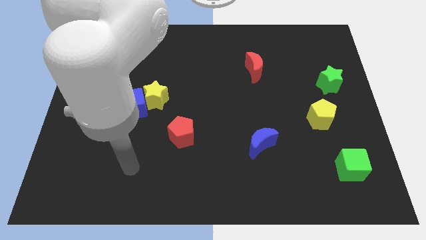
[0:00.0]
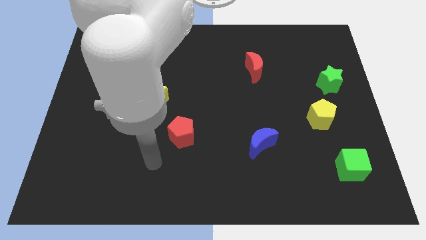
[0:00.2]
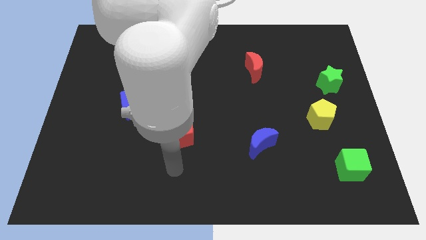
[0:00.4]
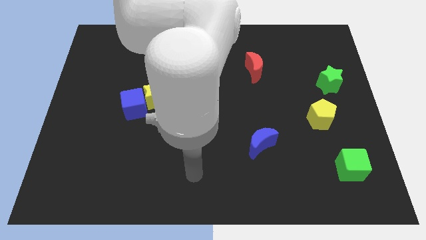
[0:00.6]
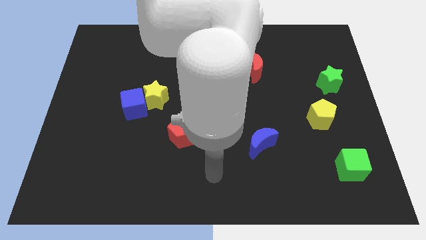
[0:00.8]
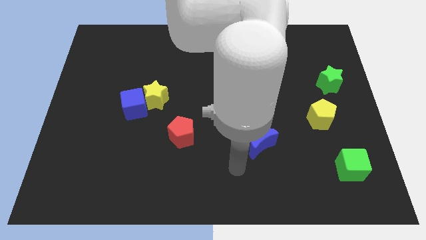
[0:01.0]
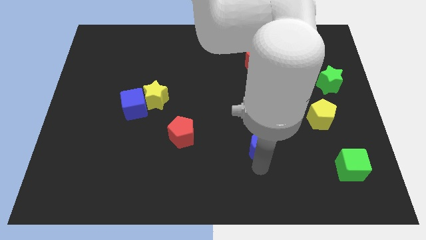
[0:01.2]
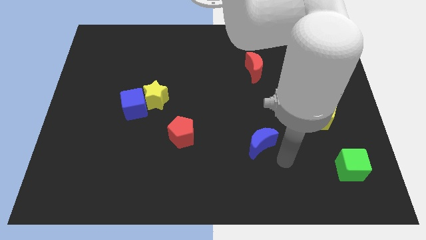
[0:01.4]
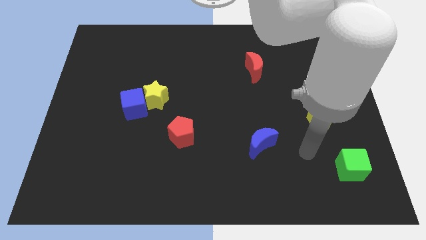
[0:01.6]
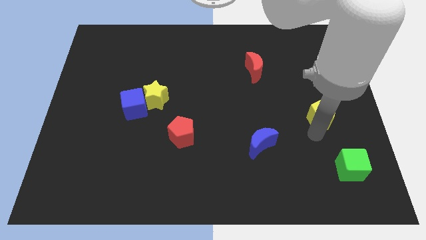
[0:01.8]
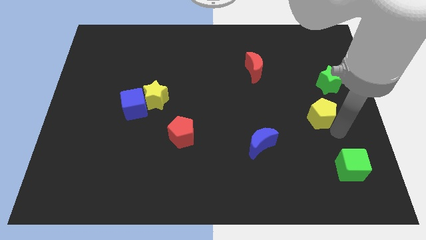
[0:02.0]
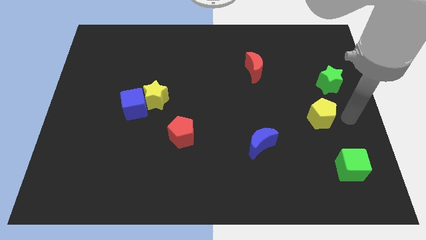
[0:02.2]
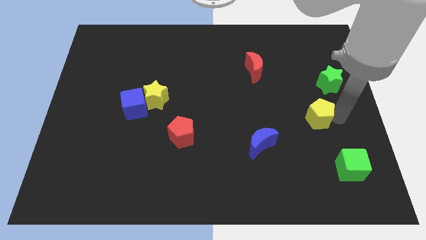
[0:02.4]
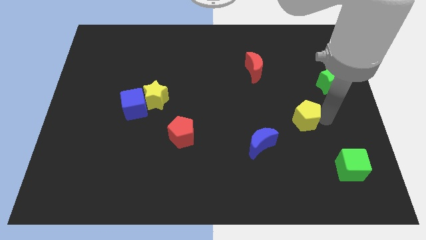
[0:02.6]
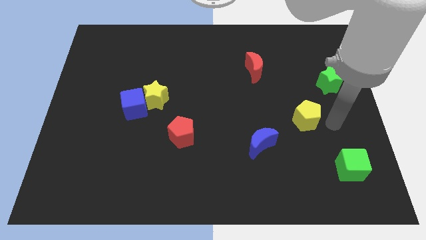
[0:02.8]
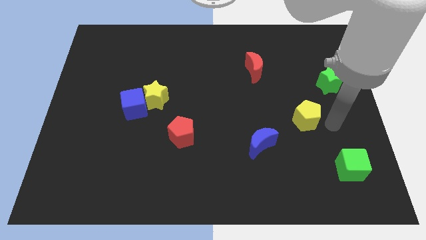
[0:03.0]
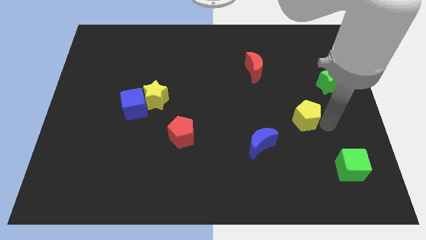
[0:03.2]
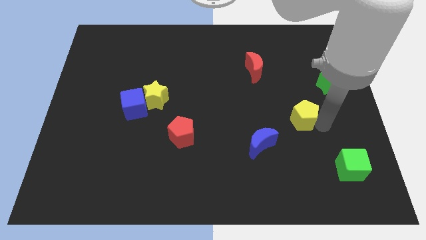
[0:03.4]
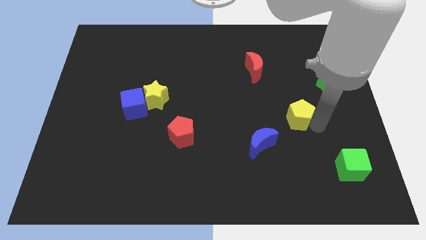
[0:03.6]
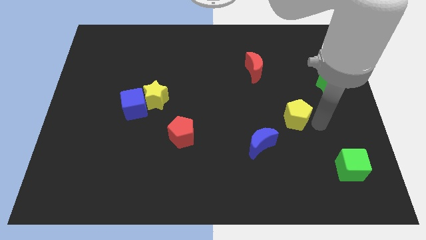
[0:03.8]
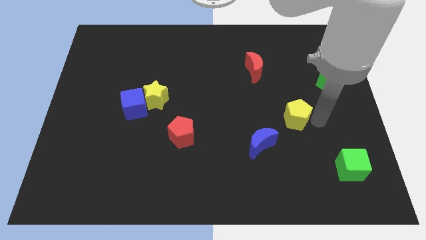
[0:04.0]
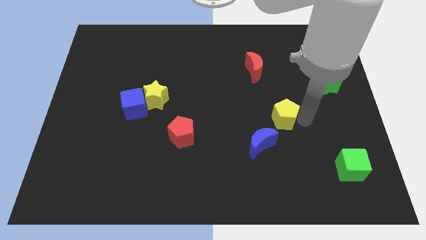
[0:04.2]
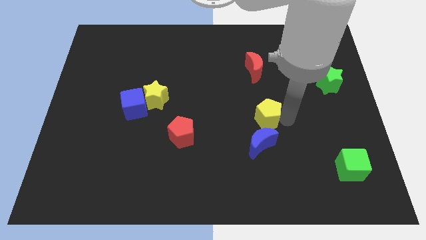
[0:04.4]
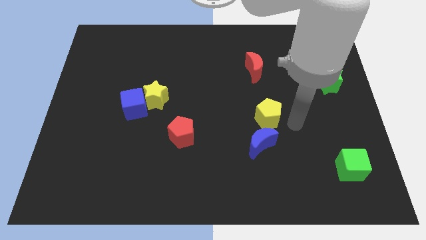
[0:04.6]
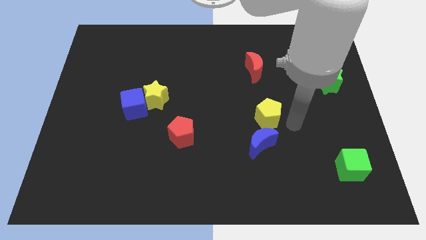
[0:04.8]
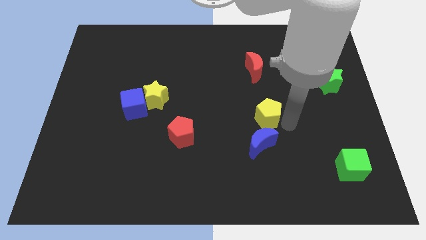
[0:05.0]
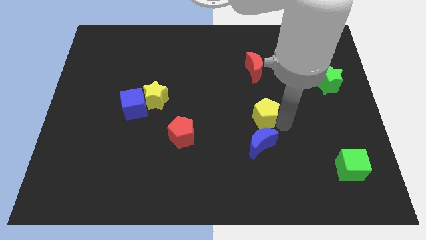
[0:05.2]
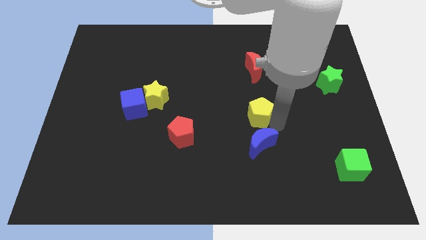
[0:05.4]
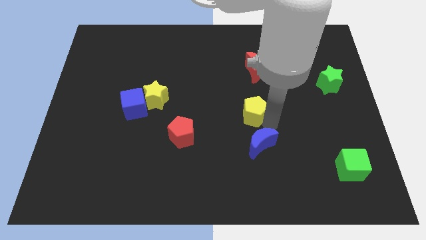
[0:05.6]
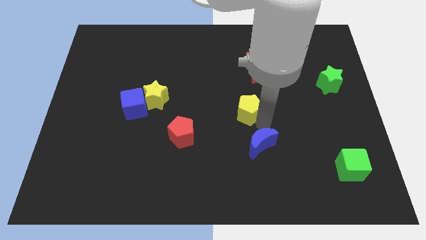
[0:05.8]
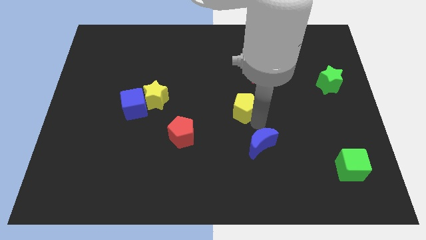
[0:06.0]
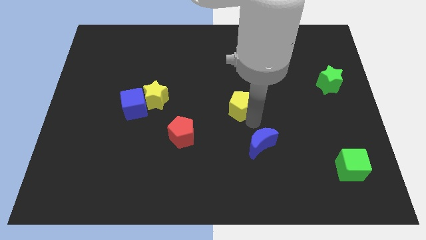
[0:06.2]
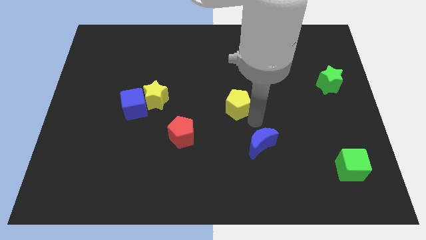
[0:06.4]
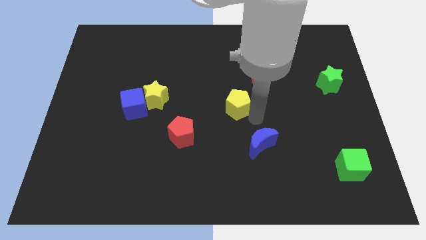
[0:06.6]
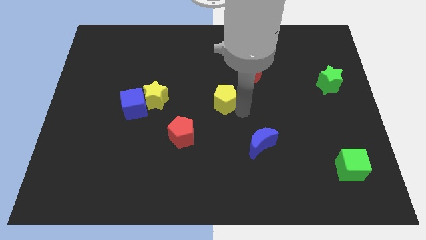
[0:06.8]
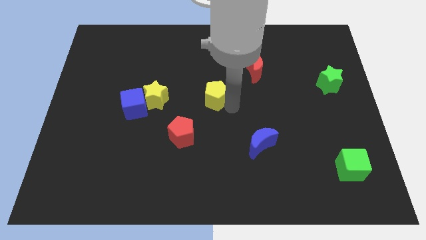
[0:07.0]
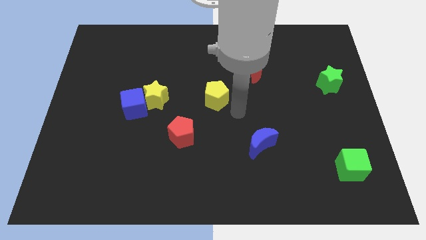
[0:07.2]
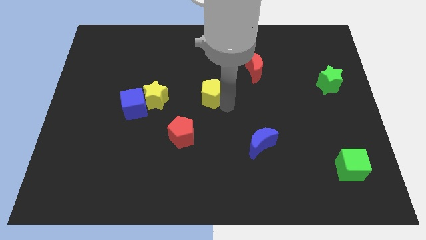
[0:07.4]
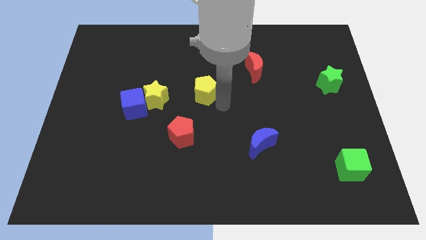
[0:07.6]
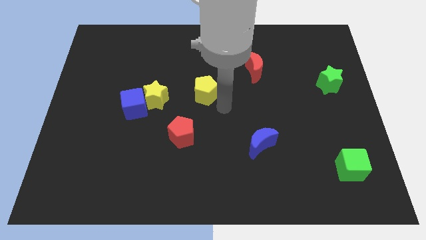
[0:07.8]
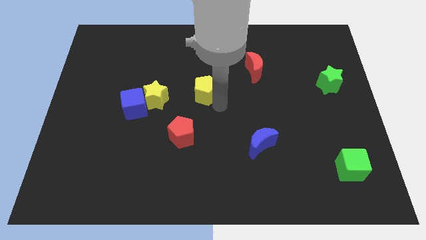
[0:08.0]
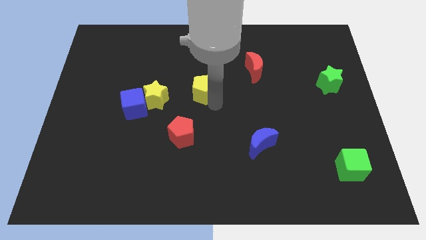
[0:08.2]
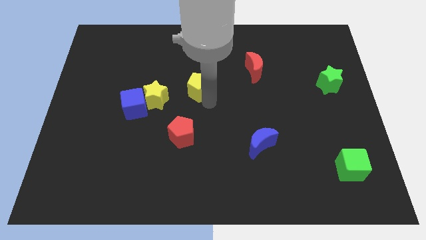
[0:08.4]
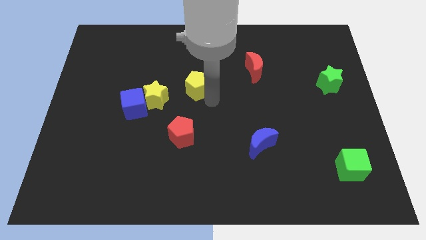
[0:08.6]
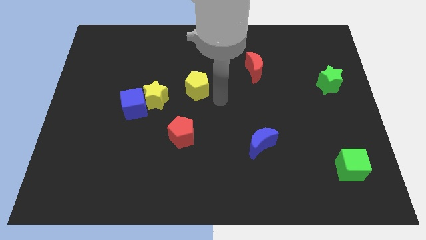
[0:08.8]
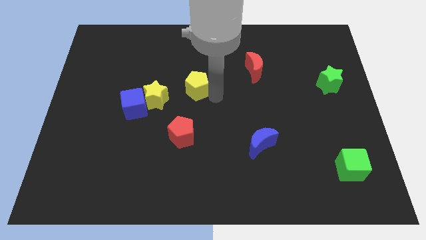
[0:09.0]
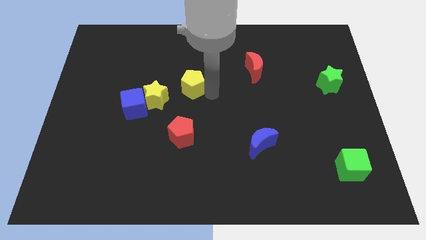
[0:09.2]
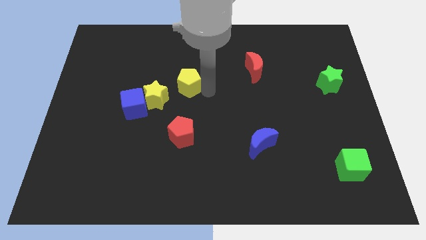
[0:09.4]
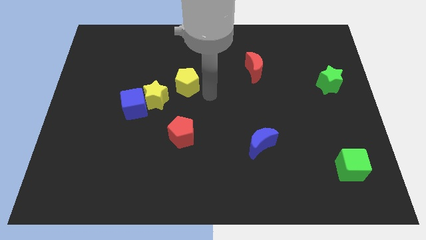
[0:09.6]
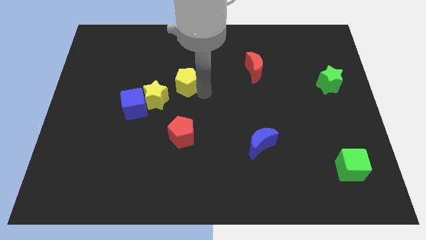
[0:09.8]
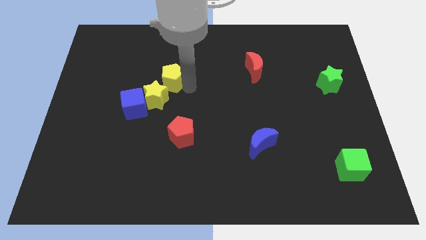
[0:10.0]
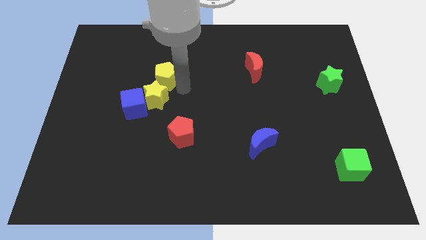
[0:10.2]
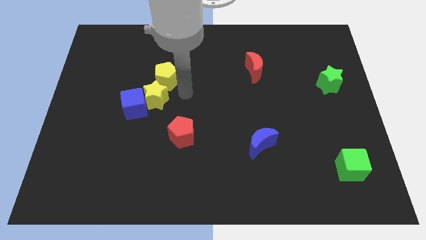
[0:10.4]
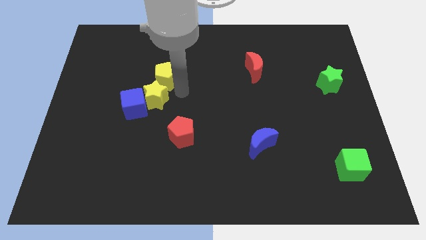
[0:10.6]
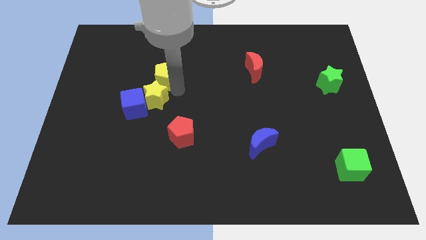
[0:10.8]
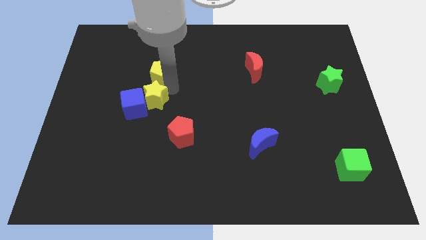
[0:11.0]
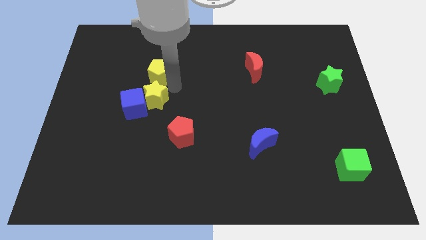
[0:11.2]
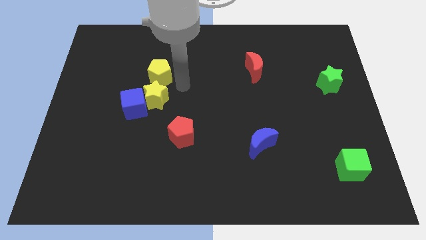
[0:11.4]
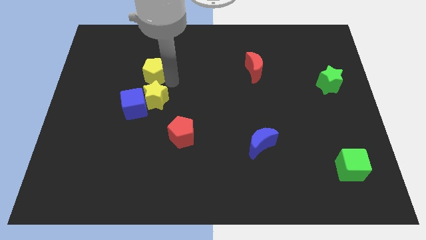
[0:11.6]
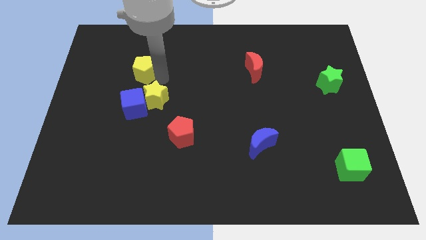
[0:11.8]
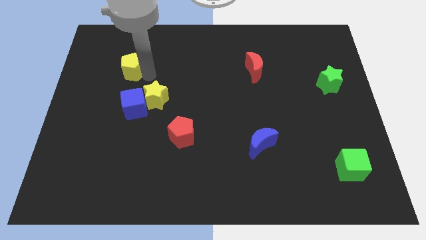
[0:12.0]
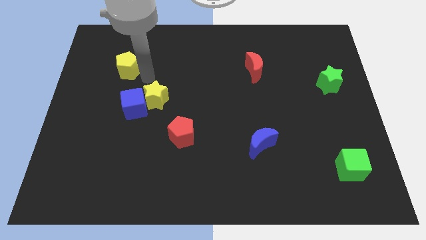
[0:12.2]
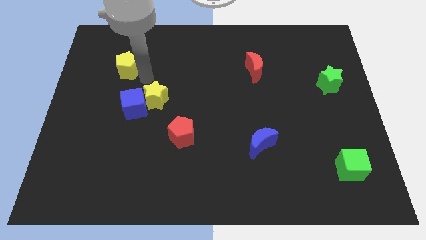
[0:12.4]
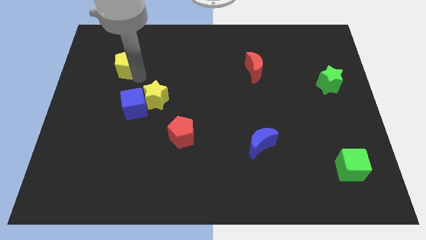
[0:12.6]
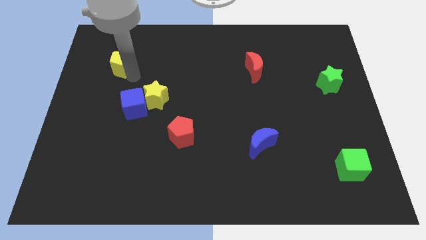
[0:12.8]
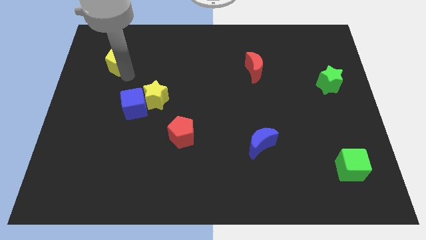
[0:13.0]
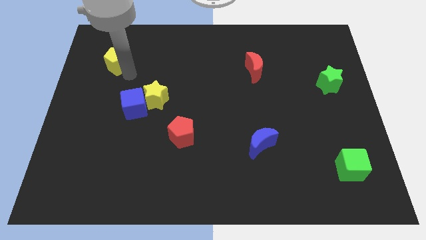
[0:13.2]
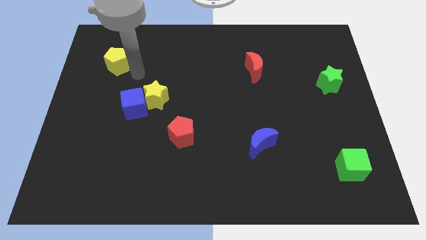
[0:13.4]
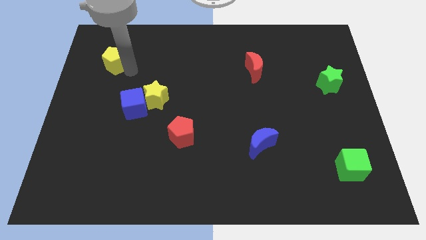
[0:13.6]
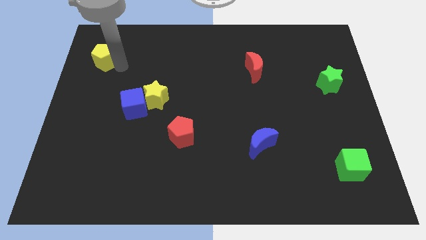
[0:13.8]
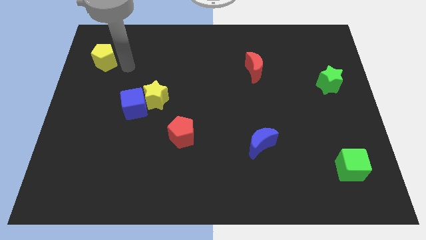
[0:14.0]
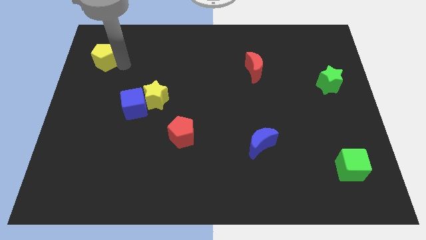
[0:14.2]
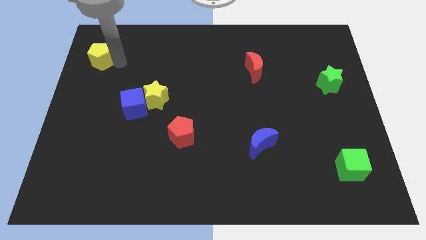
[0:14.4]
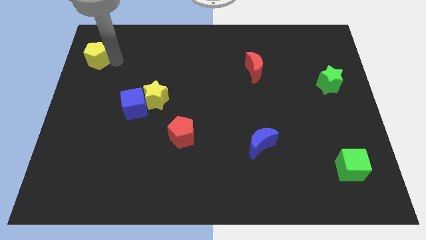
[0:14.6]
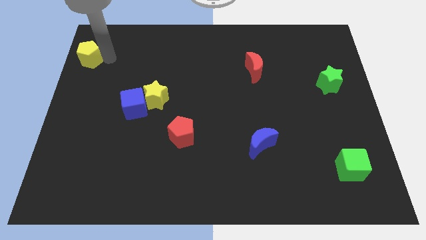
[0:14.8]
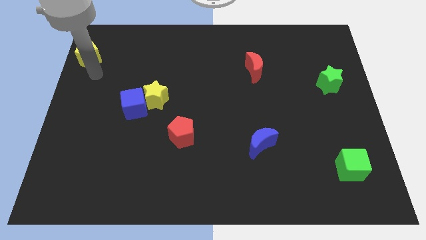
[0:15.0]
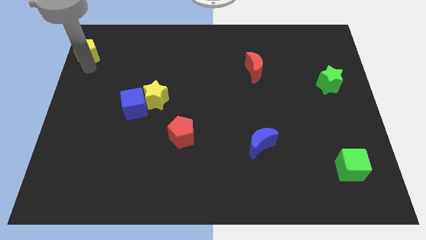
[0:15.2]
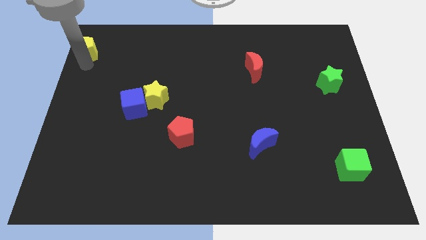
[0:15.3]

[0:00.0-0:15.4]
move the yellow pentagon to the top left

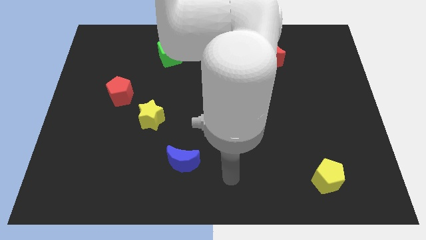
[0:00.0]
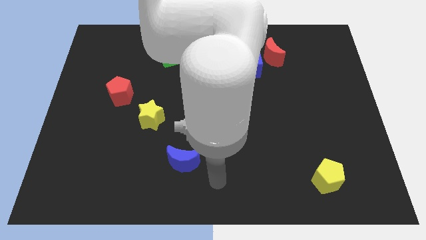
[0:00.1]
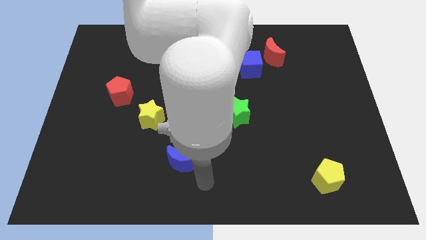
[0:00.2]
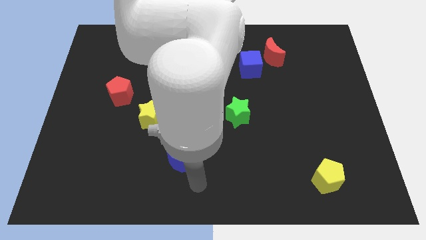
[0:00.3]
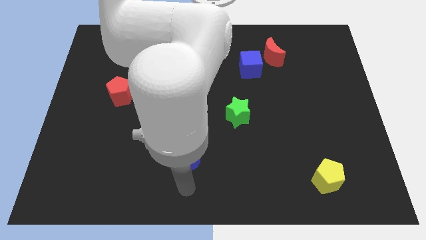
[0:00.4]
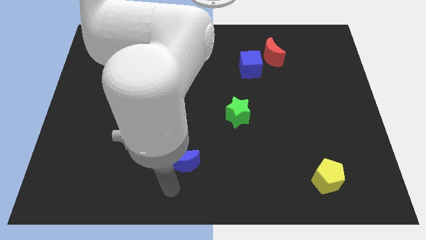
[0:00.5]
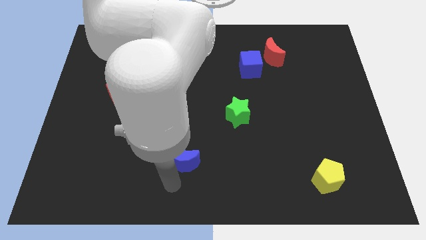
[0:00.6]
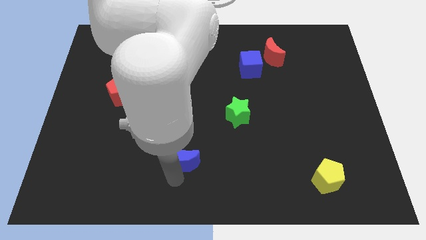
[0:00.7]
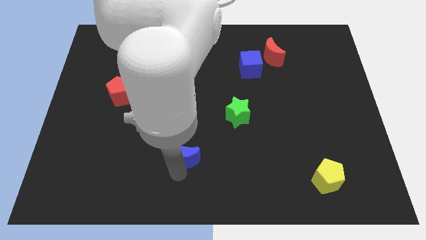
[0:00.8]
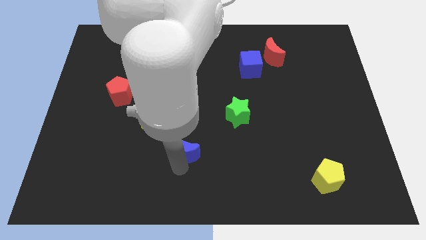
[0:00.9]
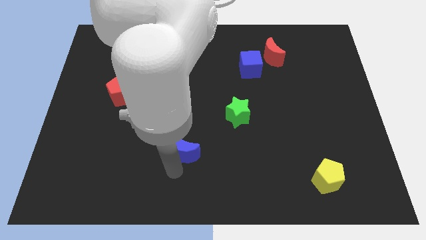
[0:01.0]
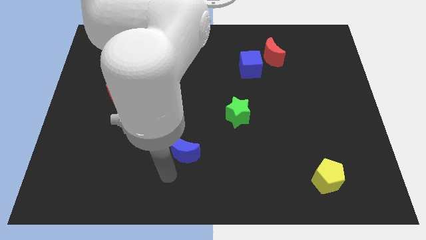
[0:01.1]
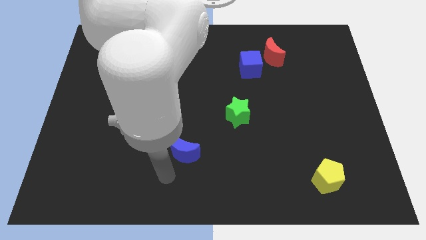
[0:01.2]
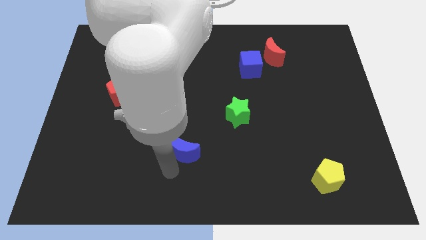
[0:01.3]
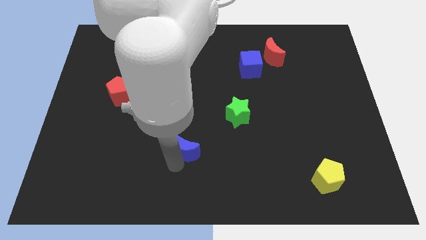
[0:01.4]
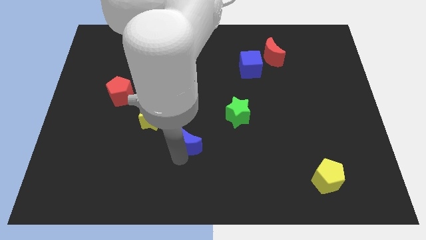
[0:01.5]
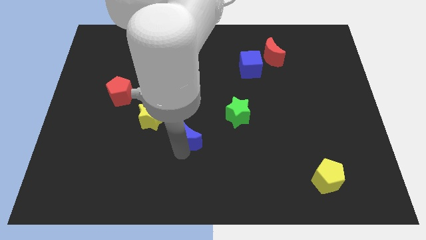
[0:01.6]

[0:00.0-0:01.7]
move the blue moon to the middle of the board
